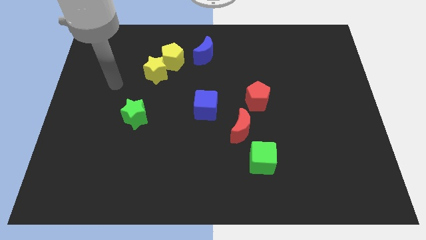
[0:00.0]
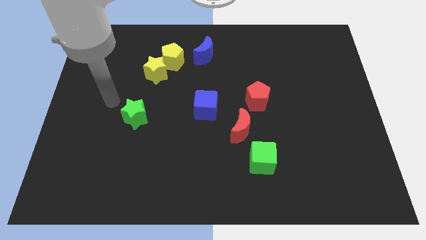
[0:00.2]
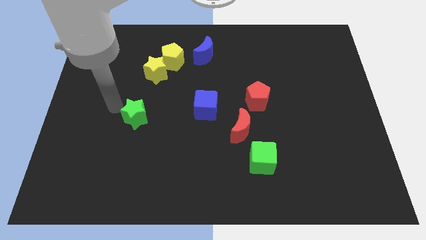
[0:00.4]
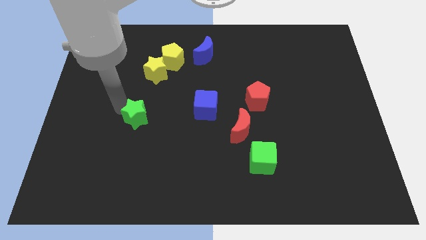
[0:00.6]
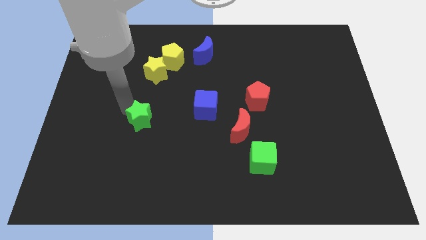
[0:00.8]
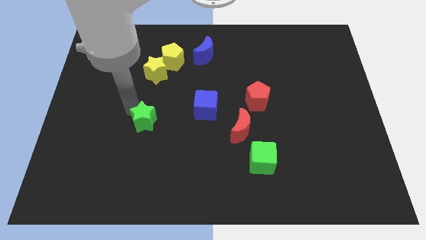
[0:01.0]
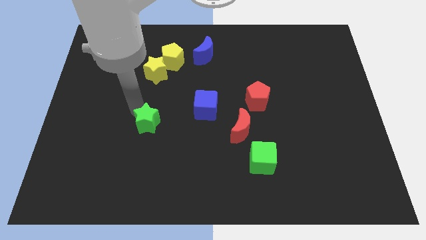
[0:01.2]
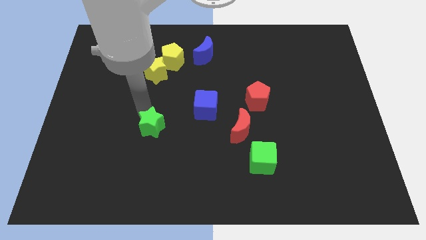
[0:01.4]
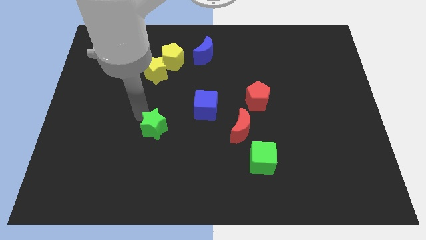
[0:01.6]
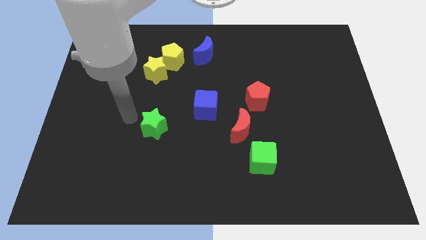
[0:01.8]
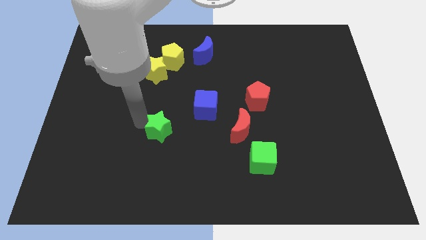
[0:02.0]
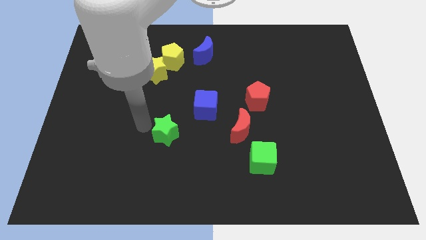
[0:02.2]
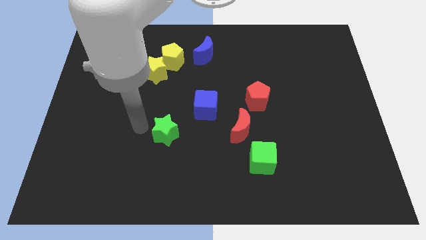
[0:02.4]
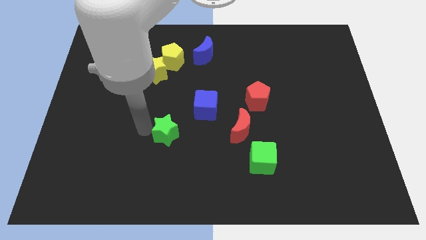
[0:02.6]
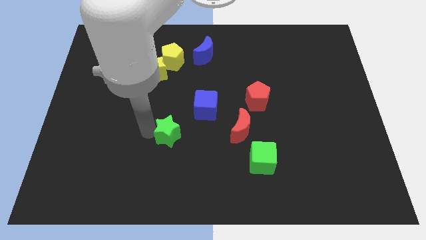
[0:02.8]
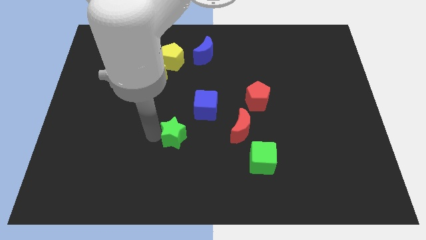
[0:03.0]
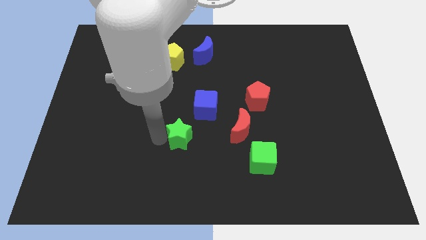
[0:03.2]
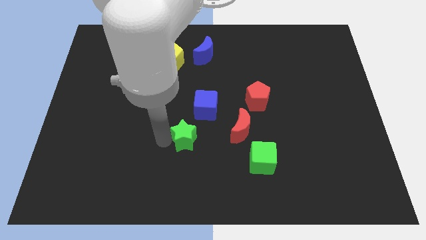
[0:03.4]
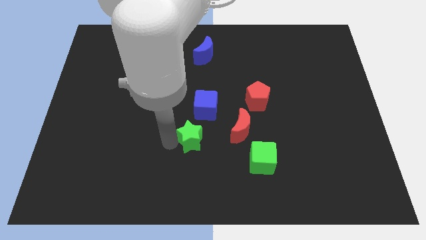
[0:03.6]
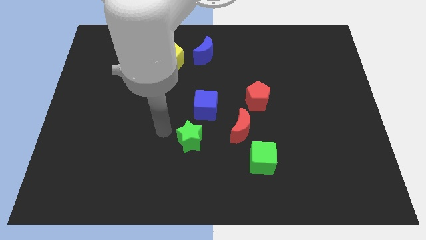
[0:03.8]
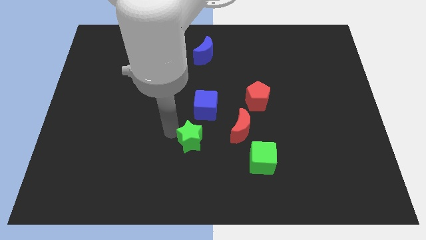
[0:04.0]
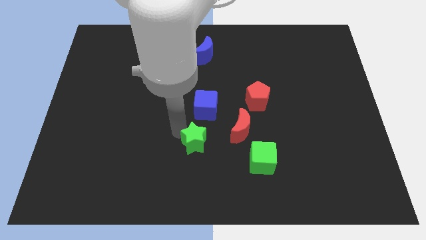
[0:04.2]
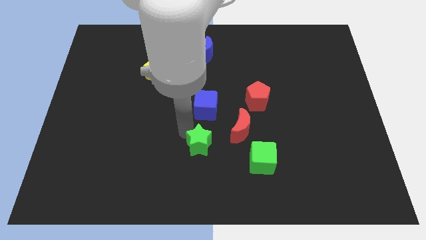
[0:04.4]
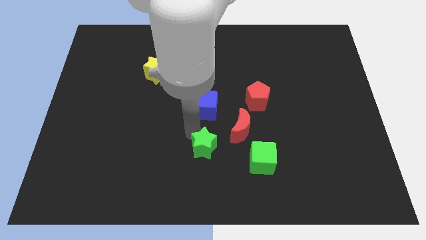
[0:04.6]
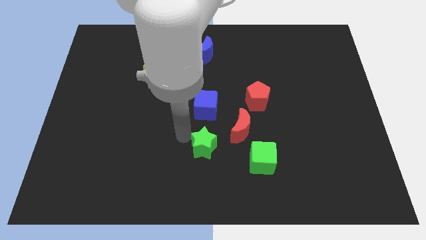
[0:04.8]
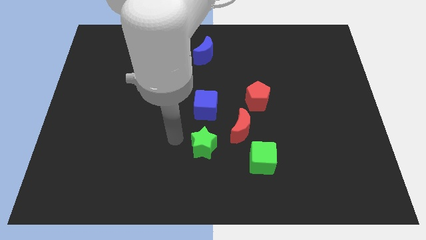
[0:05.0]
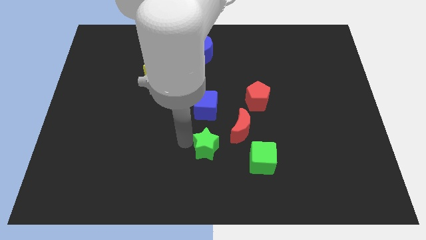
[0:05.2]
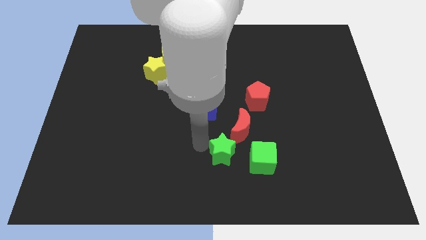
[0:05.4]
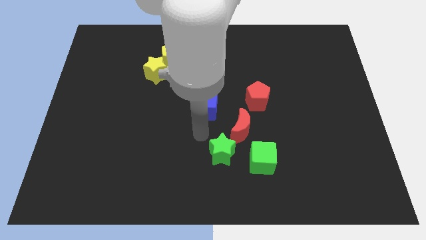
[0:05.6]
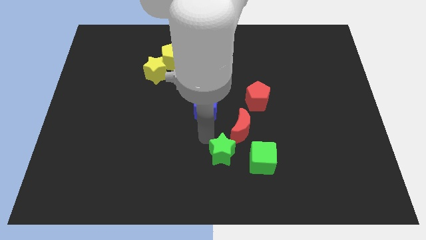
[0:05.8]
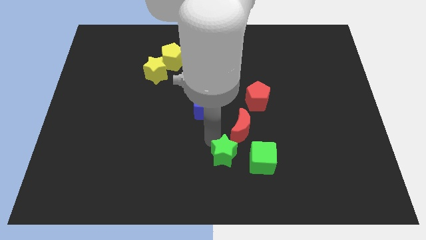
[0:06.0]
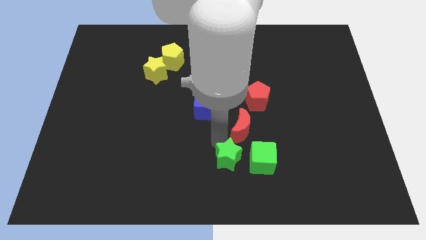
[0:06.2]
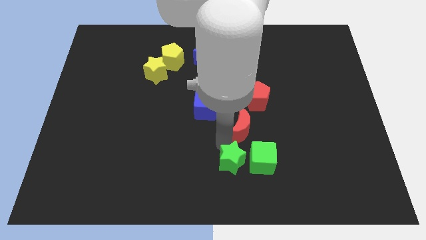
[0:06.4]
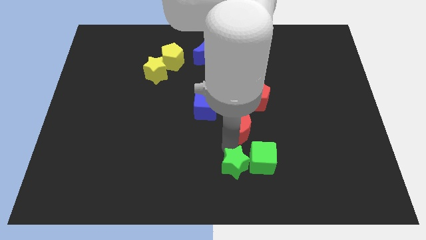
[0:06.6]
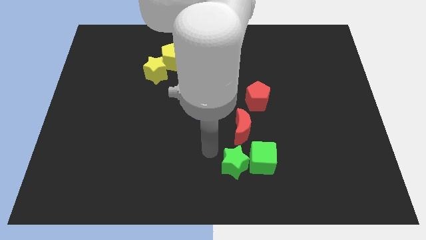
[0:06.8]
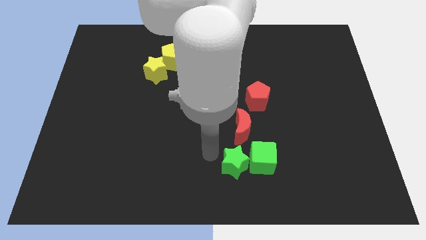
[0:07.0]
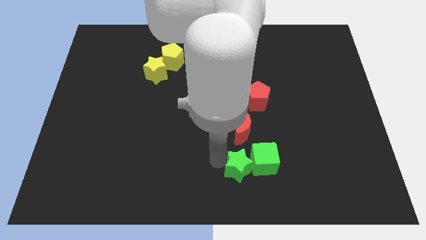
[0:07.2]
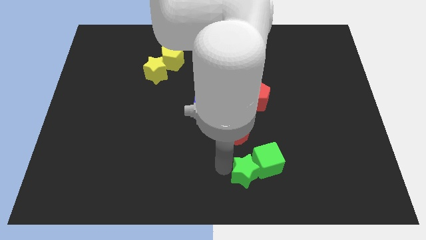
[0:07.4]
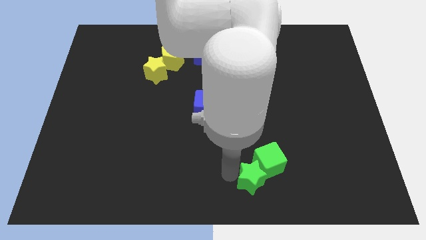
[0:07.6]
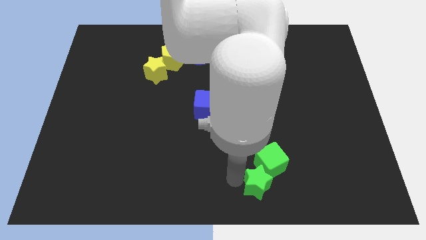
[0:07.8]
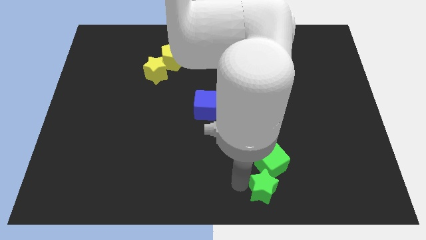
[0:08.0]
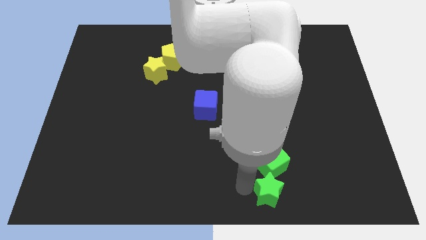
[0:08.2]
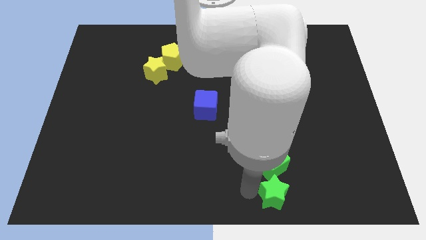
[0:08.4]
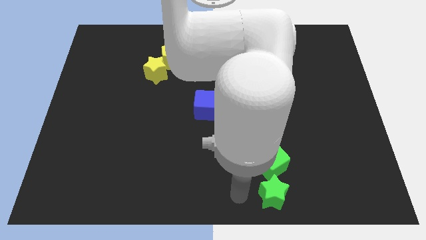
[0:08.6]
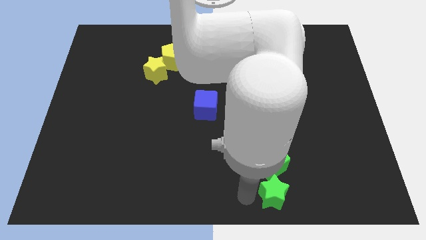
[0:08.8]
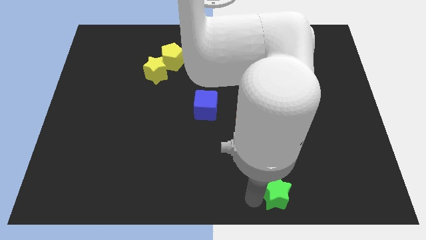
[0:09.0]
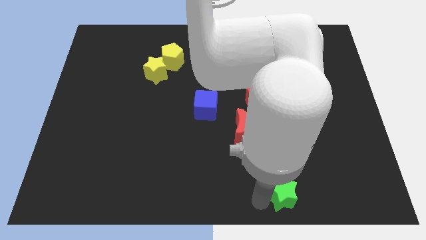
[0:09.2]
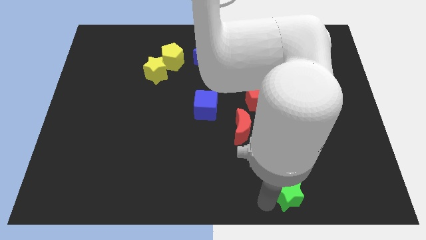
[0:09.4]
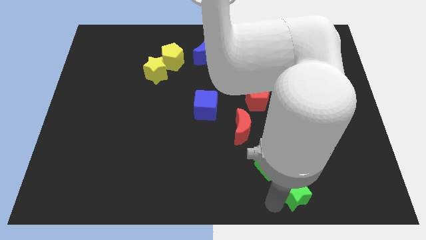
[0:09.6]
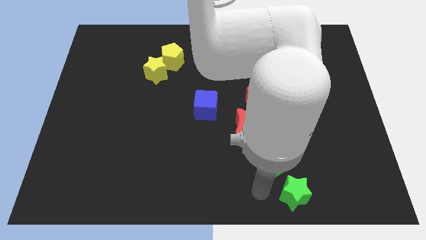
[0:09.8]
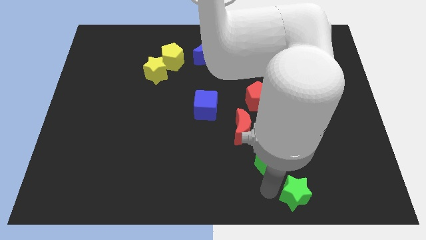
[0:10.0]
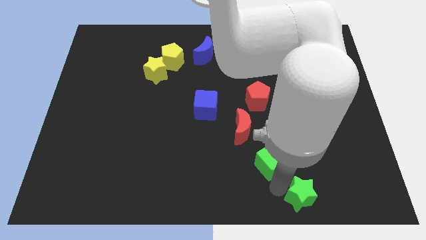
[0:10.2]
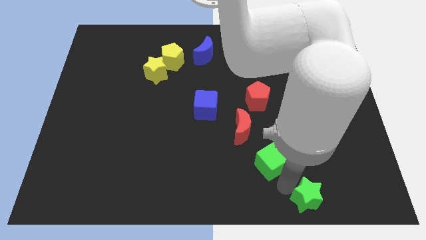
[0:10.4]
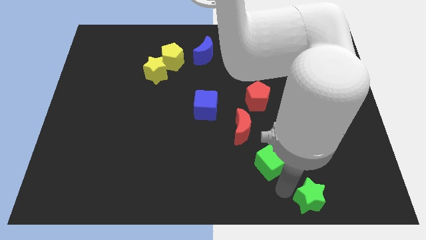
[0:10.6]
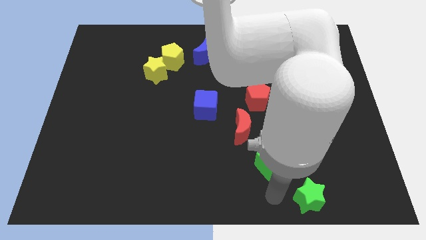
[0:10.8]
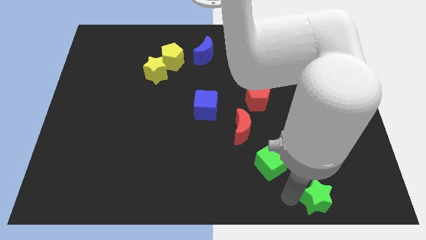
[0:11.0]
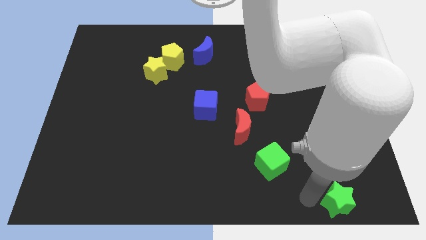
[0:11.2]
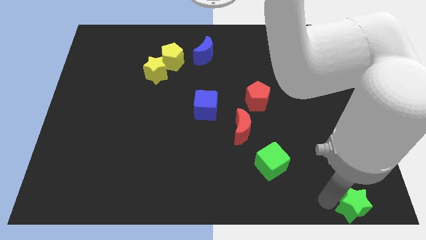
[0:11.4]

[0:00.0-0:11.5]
push the green star to the bottom right
